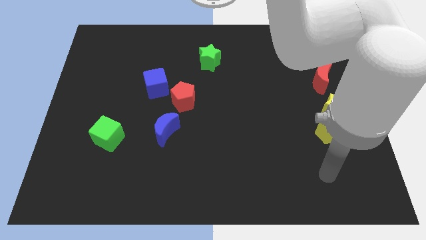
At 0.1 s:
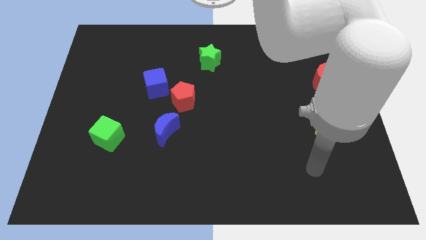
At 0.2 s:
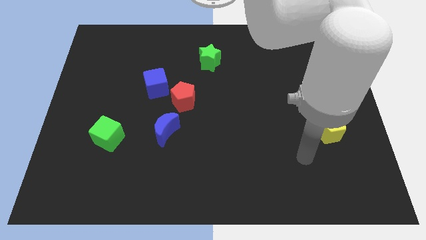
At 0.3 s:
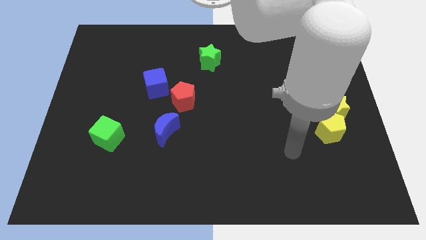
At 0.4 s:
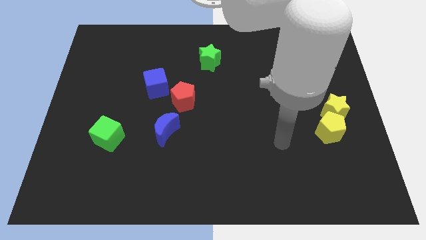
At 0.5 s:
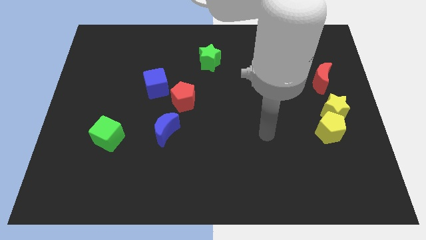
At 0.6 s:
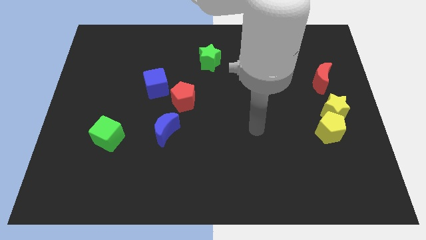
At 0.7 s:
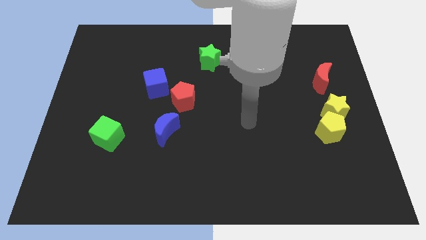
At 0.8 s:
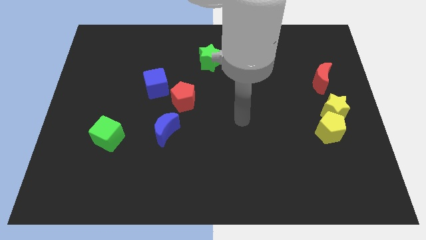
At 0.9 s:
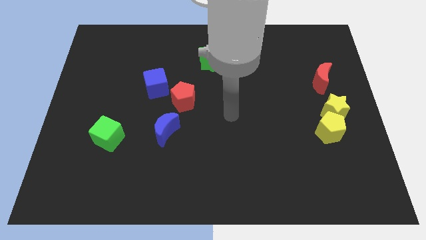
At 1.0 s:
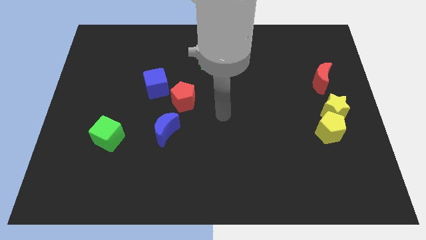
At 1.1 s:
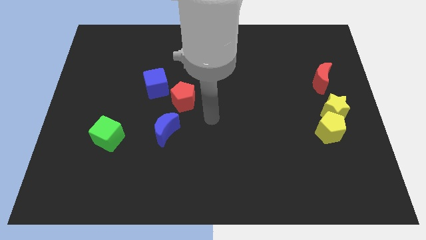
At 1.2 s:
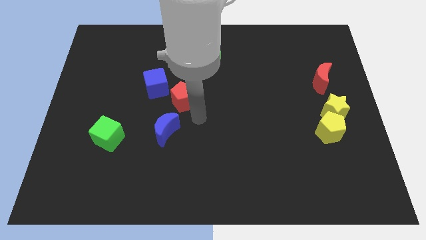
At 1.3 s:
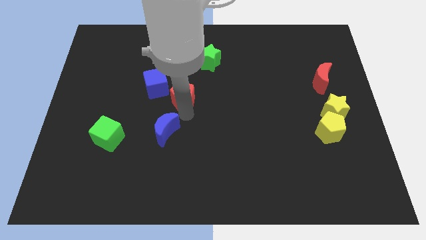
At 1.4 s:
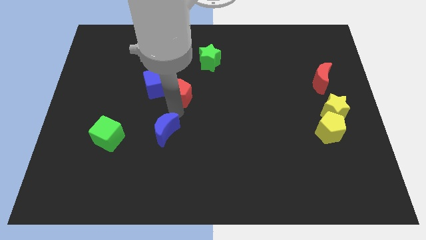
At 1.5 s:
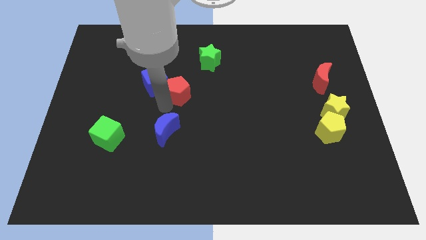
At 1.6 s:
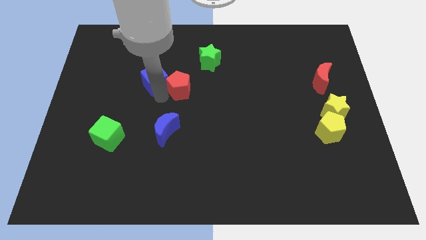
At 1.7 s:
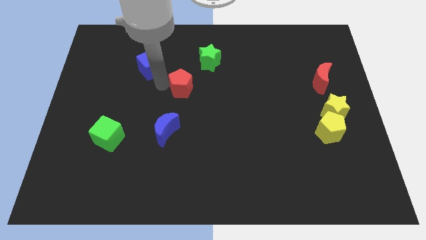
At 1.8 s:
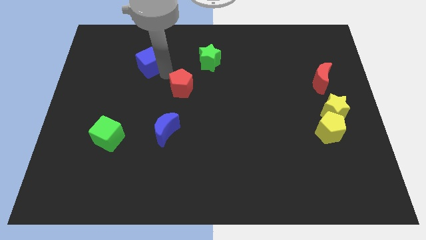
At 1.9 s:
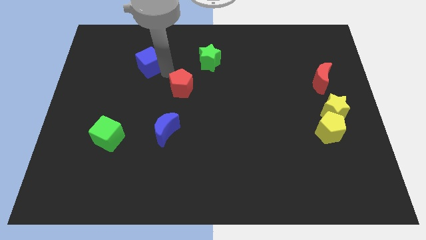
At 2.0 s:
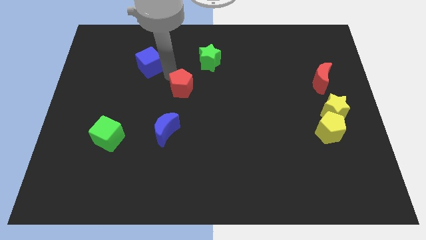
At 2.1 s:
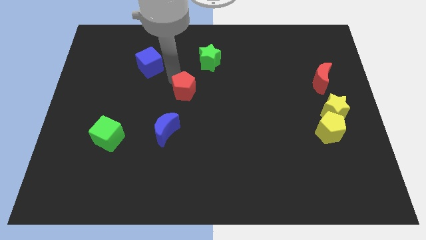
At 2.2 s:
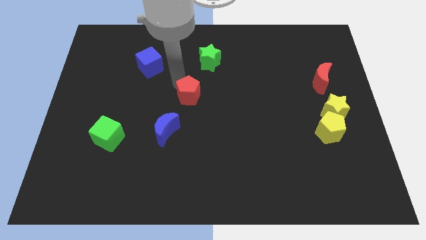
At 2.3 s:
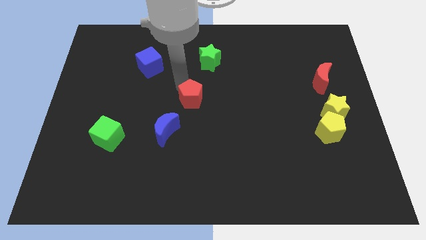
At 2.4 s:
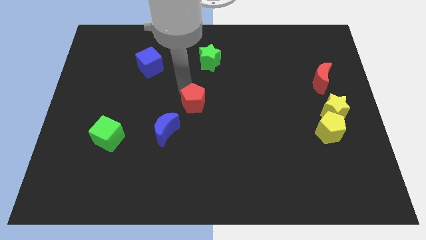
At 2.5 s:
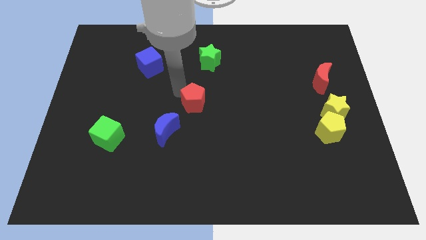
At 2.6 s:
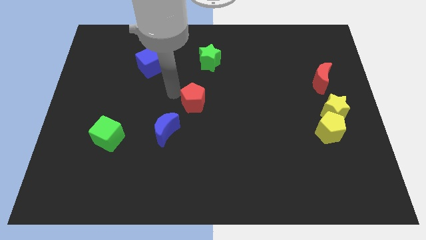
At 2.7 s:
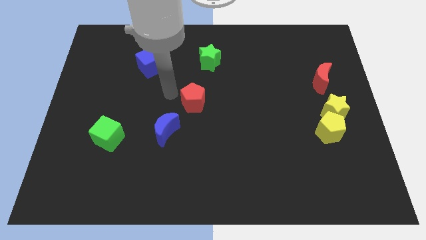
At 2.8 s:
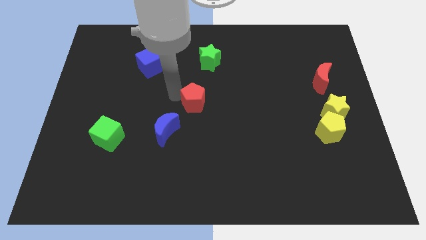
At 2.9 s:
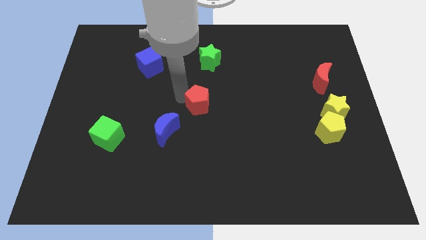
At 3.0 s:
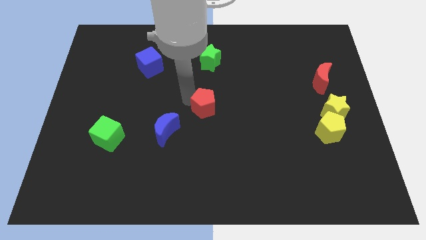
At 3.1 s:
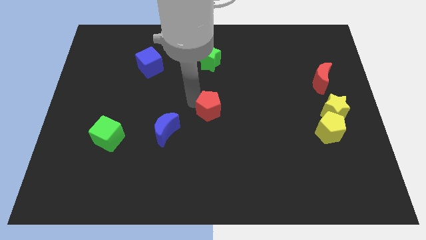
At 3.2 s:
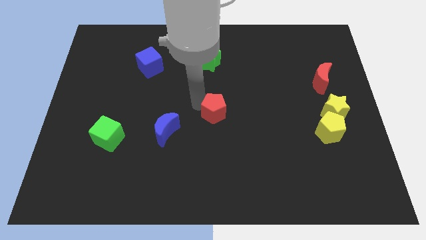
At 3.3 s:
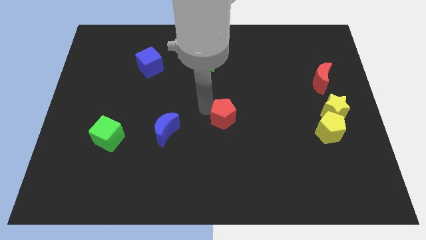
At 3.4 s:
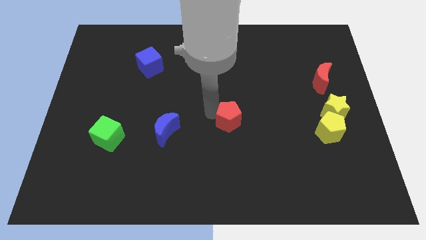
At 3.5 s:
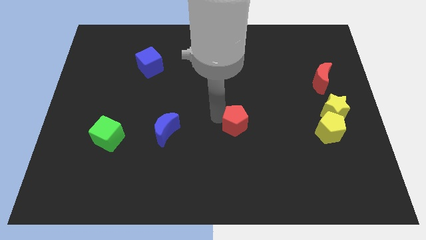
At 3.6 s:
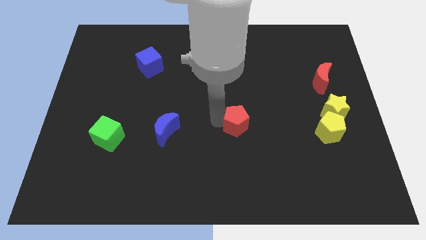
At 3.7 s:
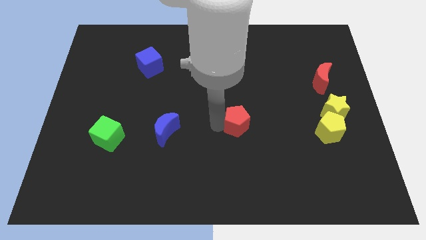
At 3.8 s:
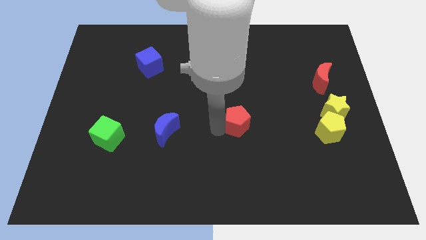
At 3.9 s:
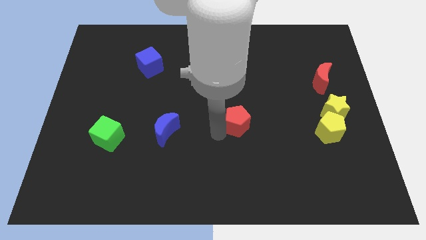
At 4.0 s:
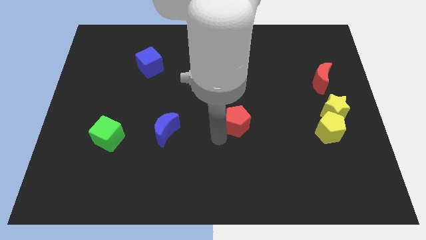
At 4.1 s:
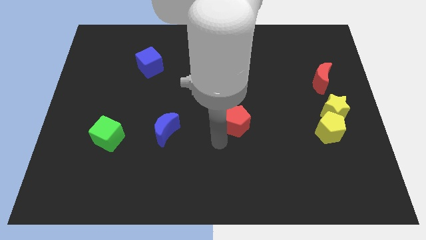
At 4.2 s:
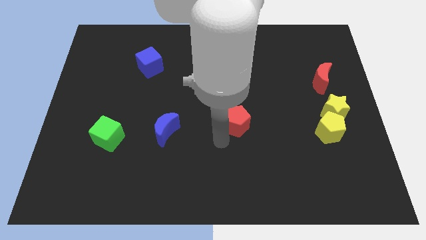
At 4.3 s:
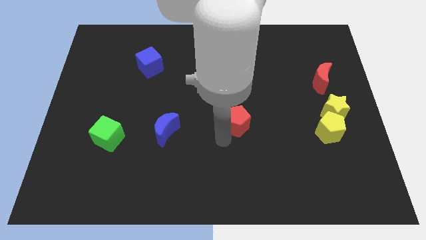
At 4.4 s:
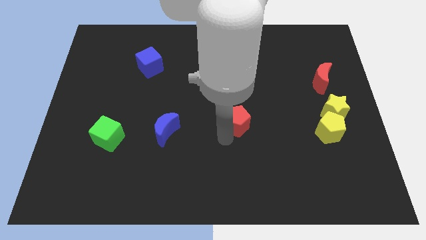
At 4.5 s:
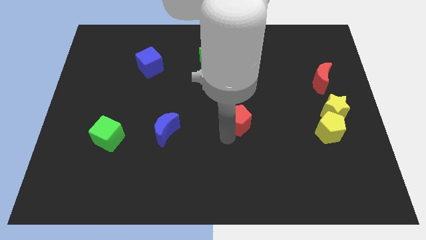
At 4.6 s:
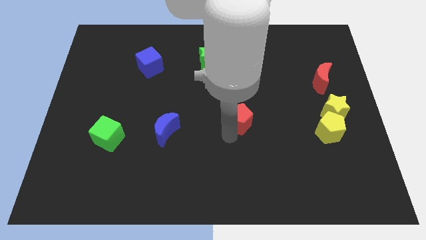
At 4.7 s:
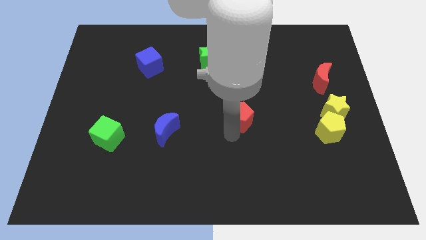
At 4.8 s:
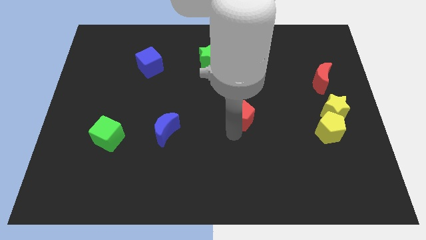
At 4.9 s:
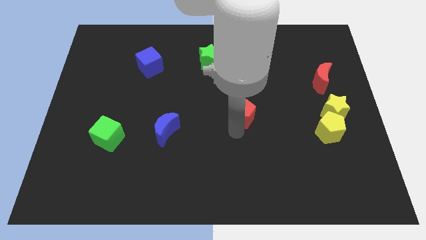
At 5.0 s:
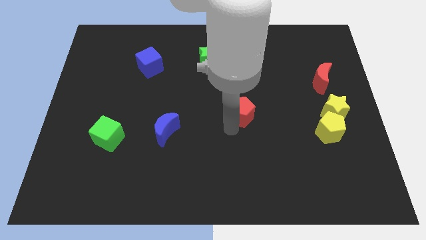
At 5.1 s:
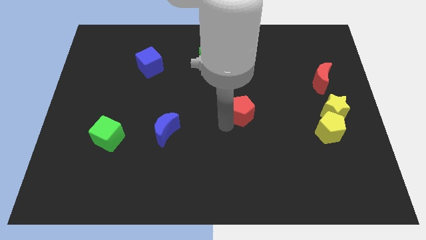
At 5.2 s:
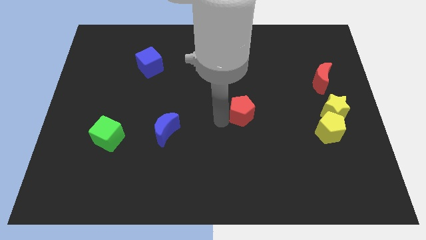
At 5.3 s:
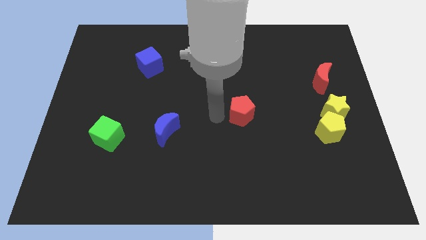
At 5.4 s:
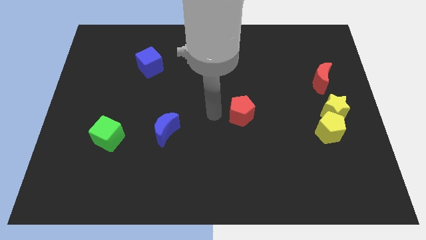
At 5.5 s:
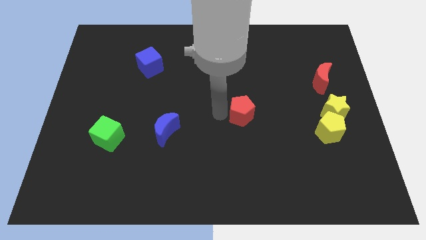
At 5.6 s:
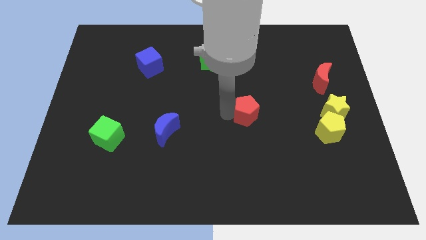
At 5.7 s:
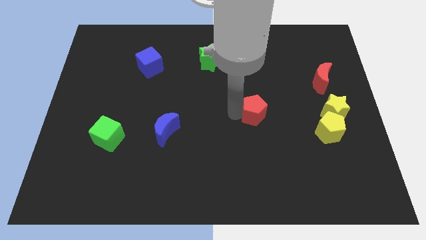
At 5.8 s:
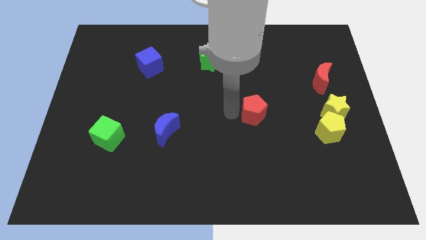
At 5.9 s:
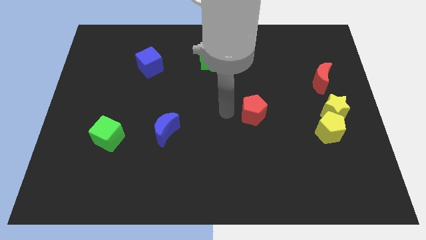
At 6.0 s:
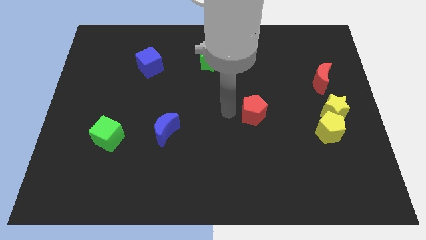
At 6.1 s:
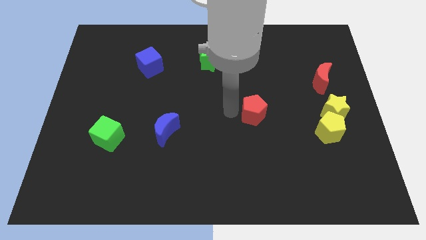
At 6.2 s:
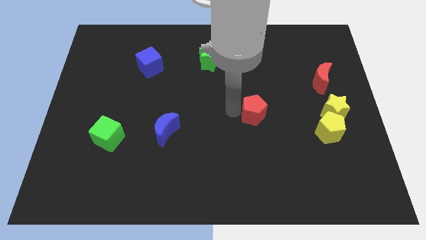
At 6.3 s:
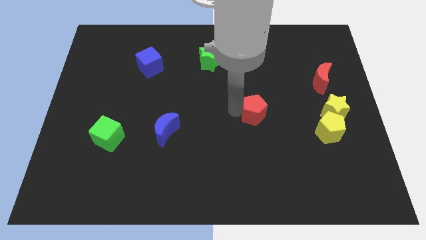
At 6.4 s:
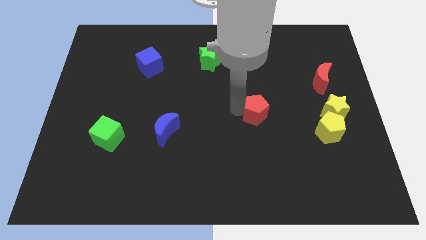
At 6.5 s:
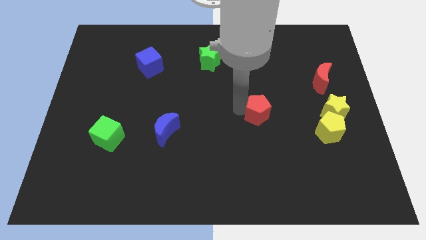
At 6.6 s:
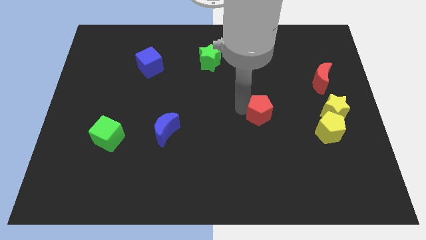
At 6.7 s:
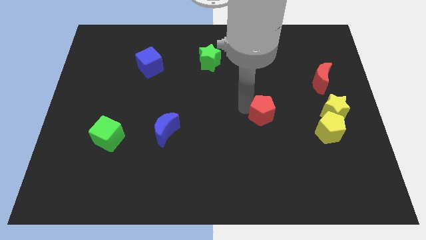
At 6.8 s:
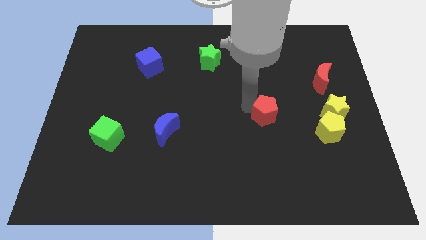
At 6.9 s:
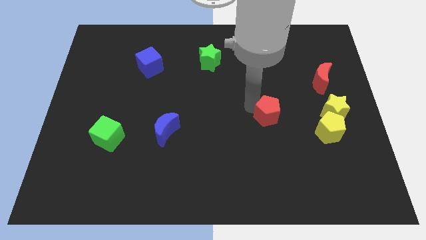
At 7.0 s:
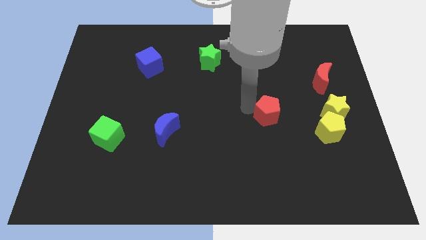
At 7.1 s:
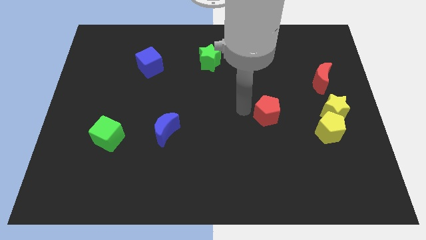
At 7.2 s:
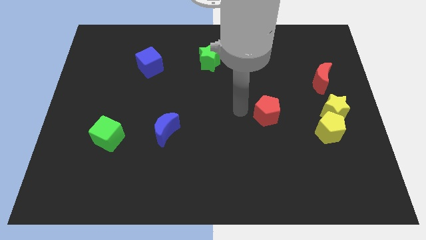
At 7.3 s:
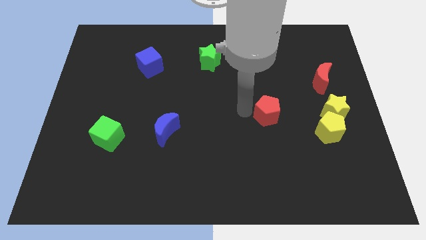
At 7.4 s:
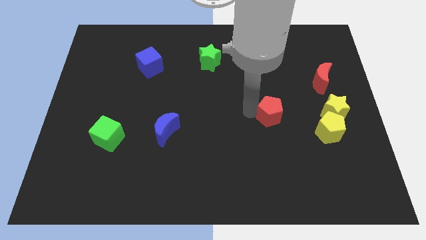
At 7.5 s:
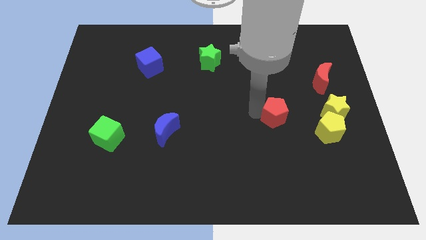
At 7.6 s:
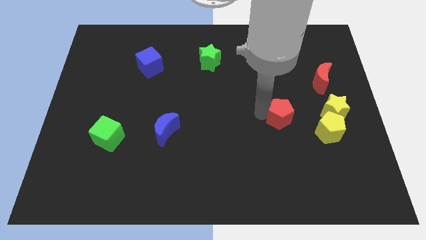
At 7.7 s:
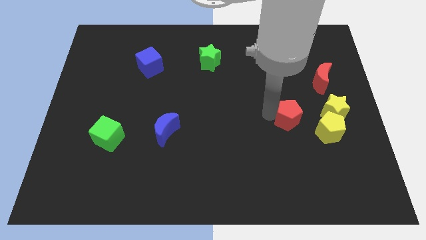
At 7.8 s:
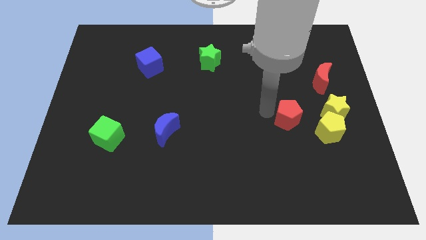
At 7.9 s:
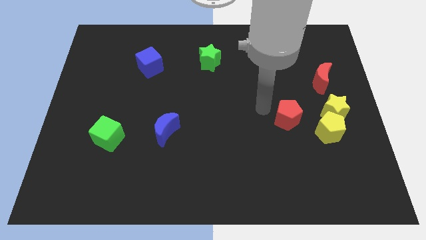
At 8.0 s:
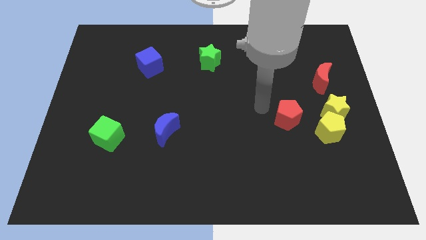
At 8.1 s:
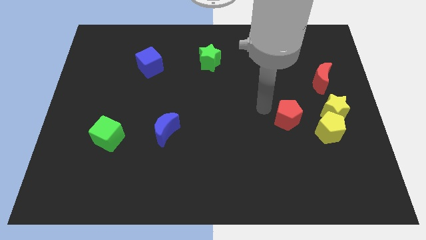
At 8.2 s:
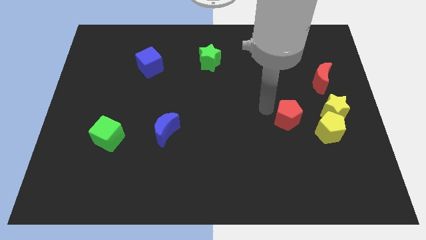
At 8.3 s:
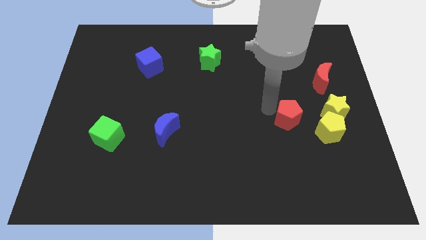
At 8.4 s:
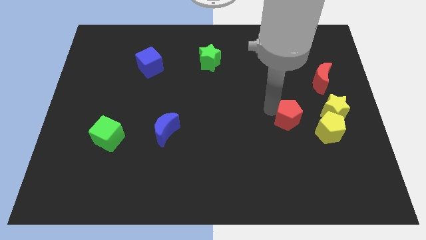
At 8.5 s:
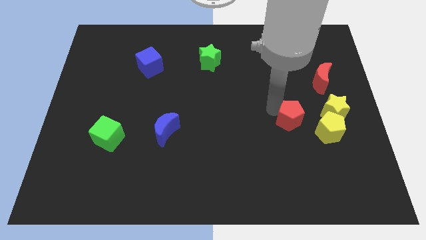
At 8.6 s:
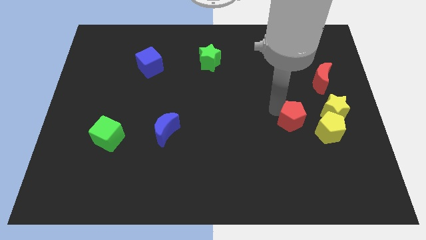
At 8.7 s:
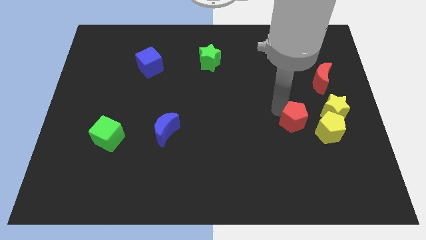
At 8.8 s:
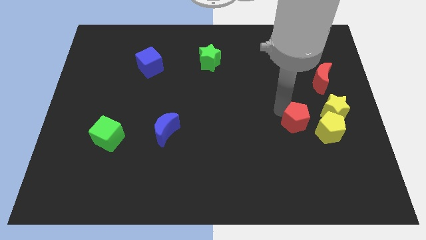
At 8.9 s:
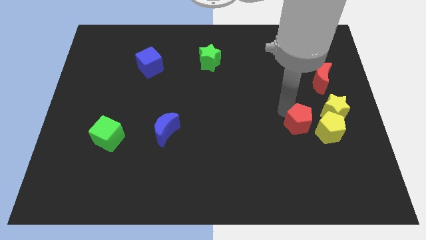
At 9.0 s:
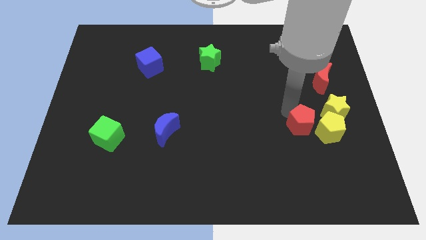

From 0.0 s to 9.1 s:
push the red pentagon towards the yellow pentagon
